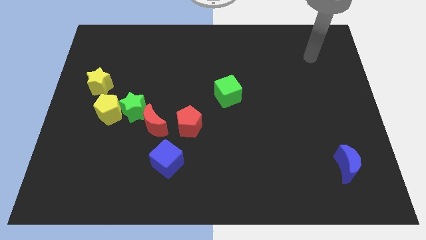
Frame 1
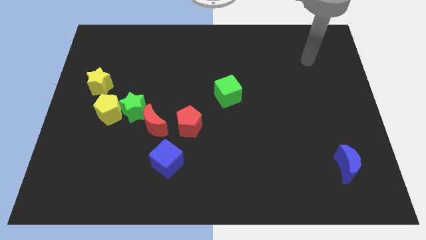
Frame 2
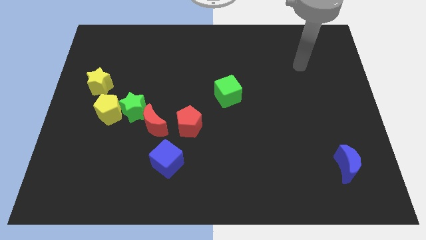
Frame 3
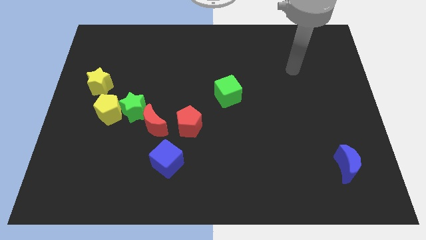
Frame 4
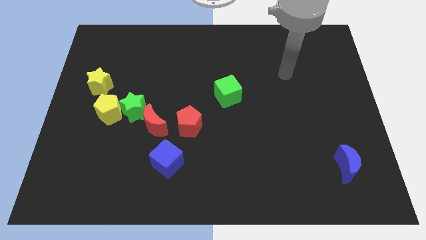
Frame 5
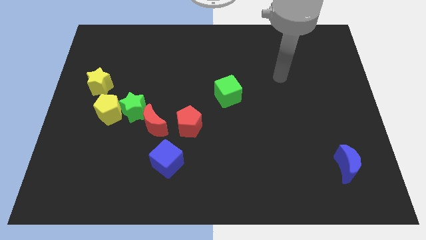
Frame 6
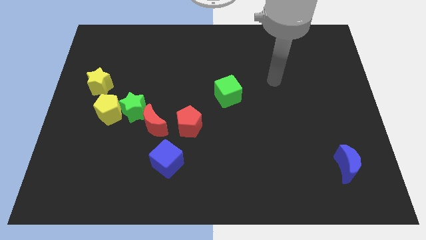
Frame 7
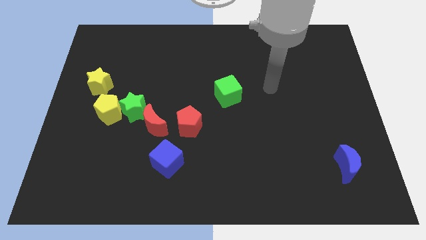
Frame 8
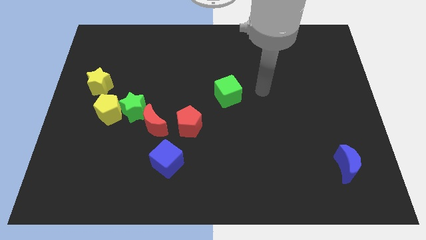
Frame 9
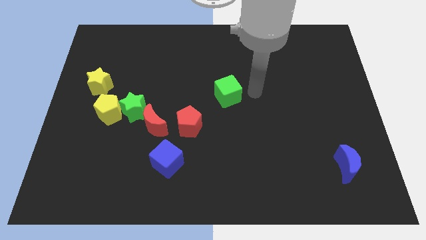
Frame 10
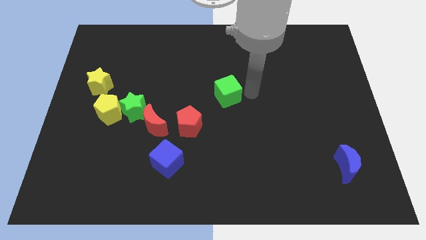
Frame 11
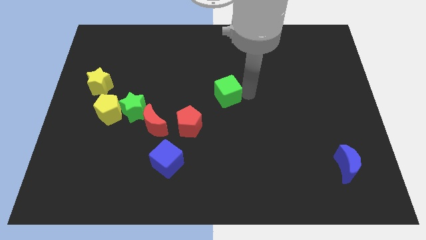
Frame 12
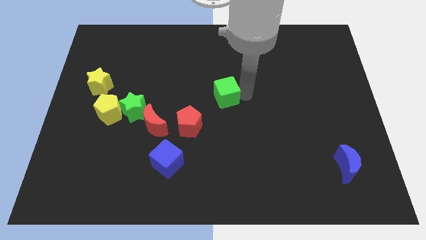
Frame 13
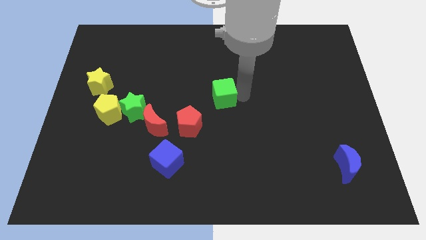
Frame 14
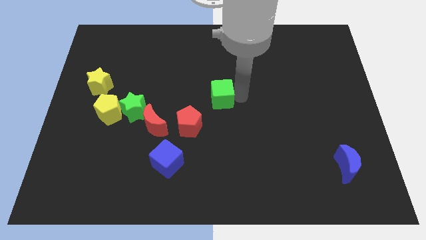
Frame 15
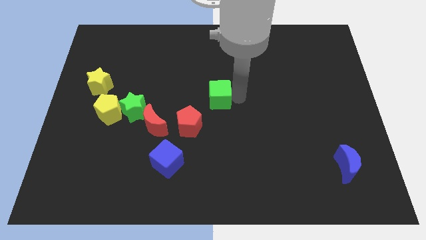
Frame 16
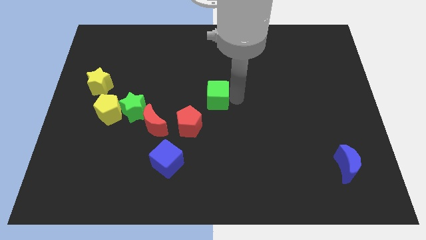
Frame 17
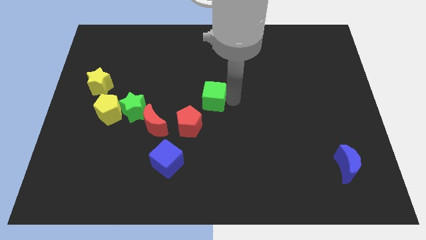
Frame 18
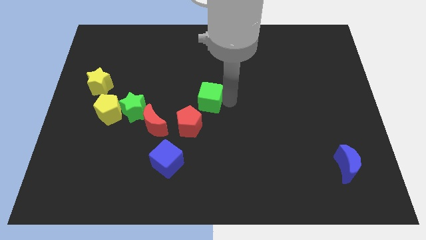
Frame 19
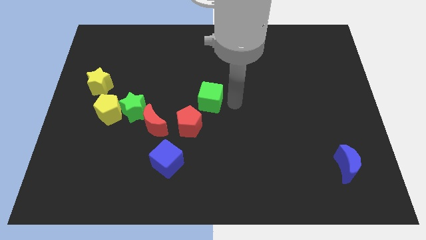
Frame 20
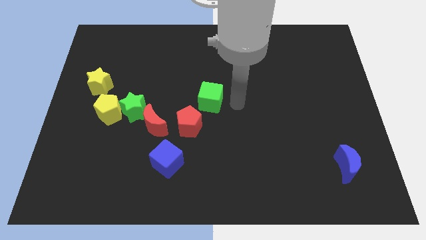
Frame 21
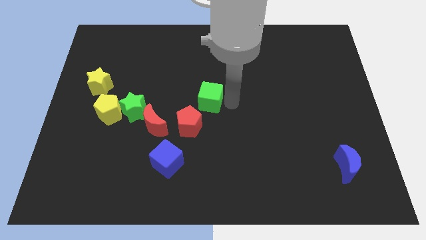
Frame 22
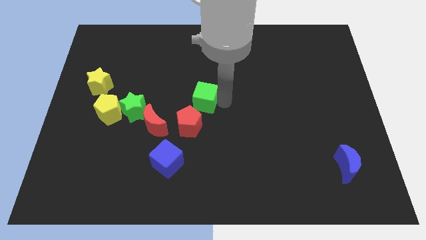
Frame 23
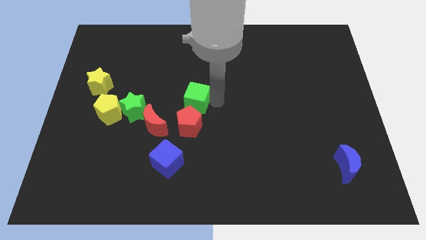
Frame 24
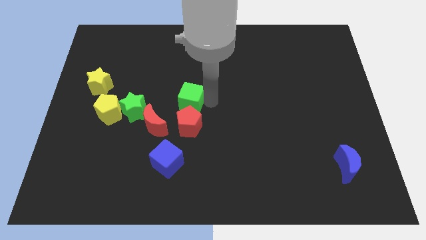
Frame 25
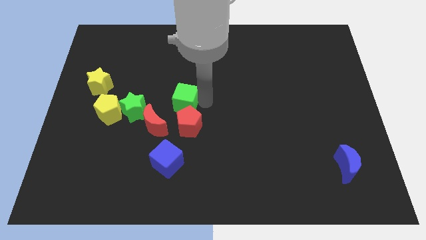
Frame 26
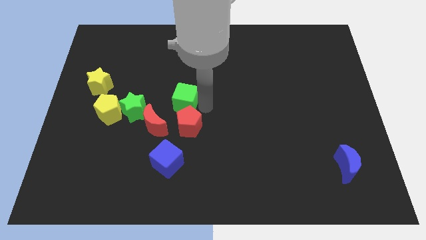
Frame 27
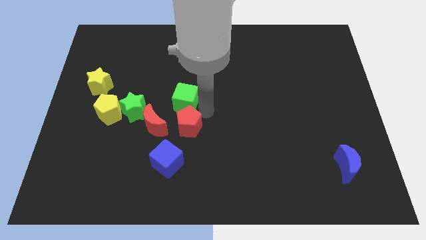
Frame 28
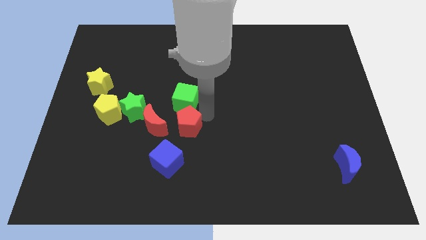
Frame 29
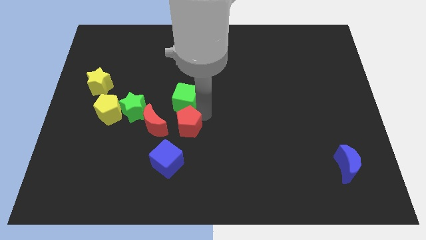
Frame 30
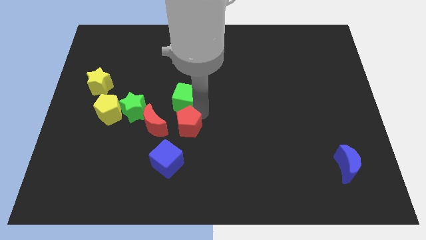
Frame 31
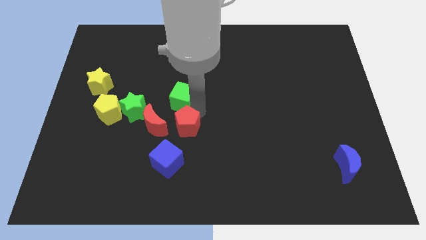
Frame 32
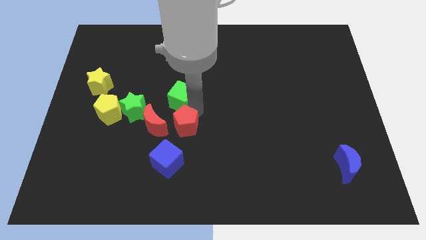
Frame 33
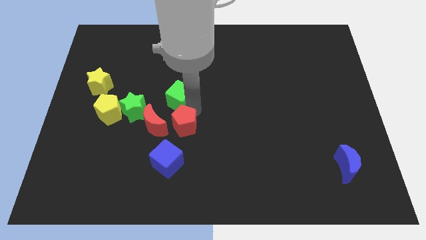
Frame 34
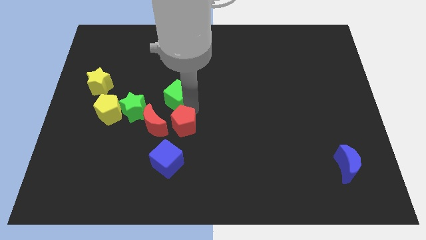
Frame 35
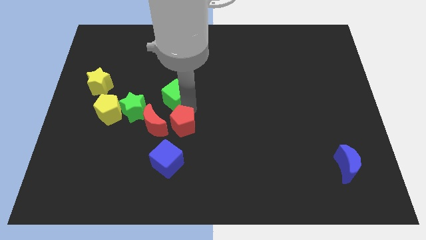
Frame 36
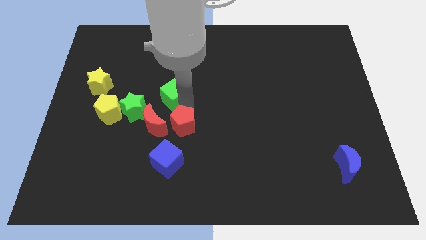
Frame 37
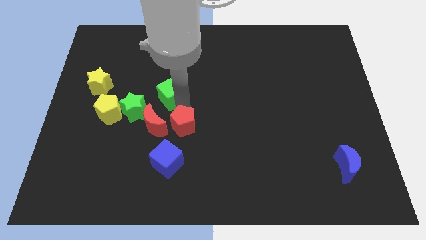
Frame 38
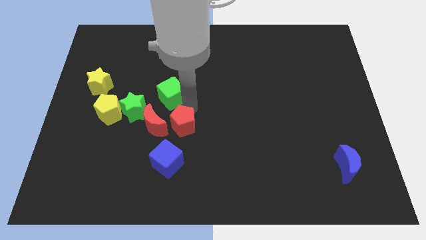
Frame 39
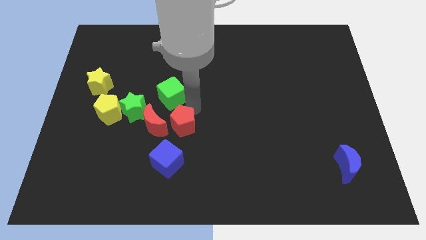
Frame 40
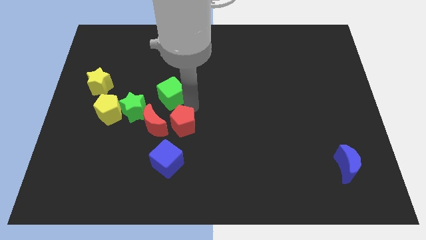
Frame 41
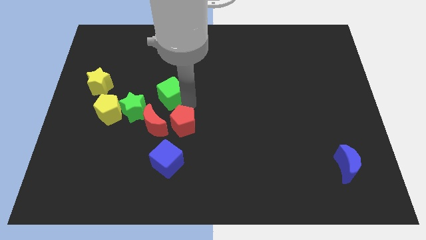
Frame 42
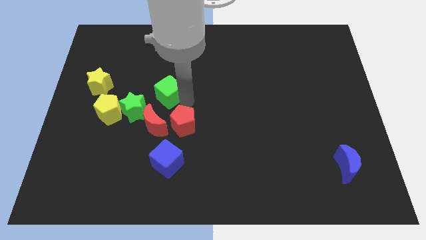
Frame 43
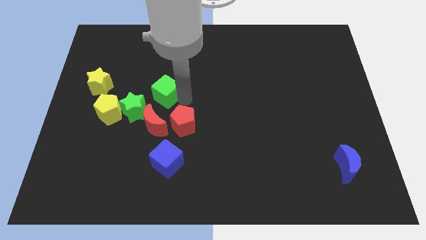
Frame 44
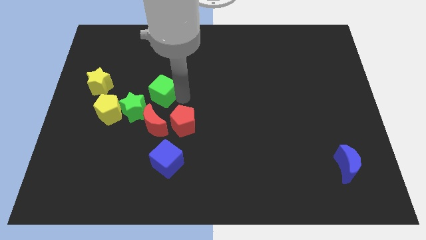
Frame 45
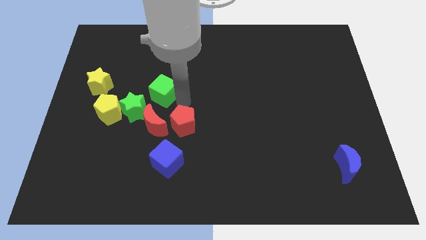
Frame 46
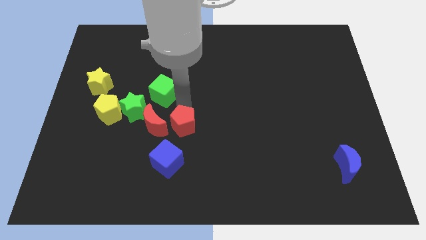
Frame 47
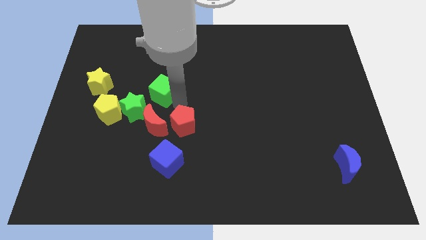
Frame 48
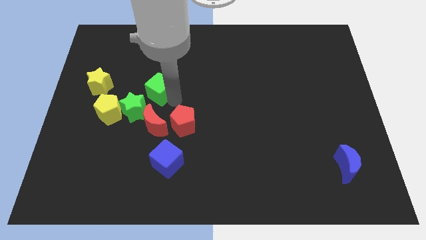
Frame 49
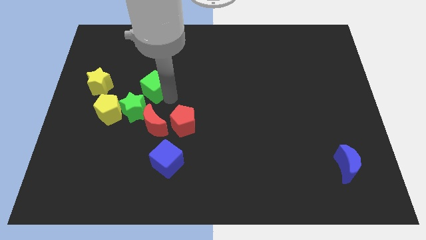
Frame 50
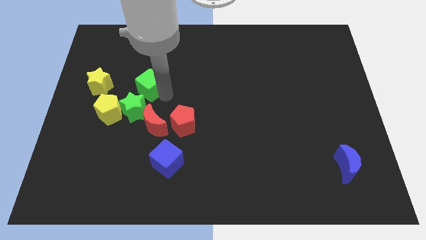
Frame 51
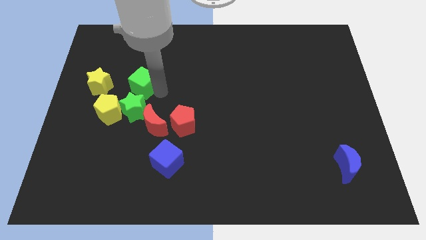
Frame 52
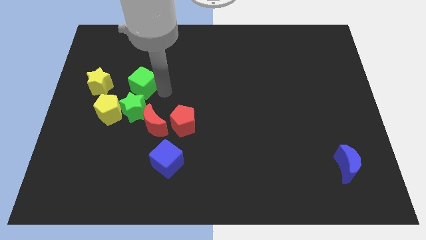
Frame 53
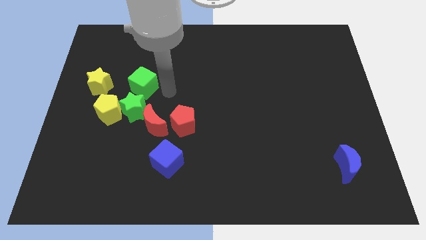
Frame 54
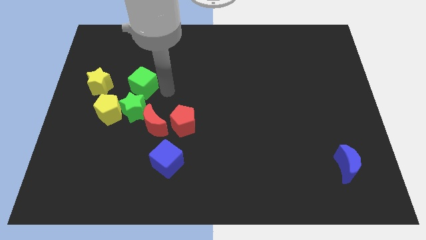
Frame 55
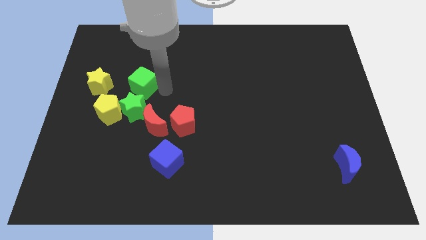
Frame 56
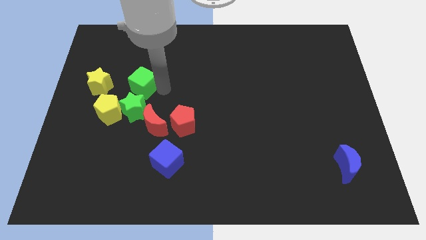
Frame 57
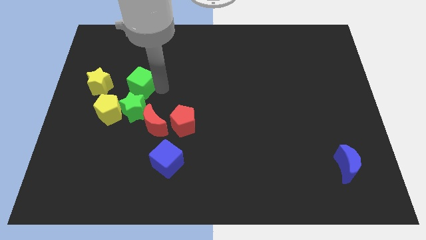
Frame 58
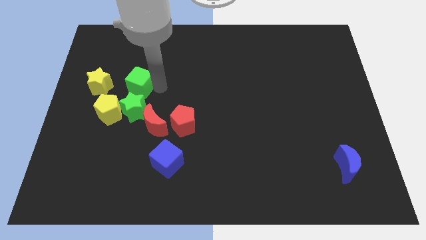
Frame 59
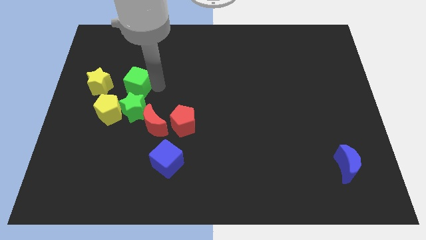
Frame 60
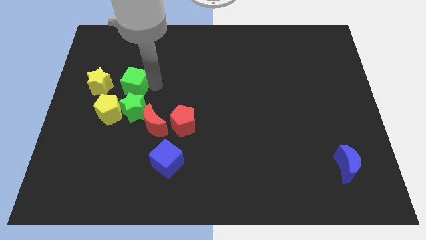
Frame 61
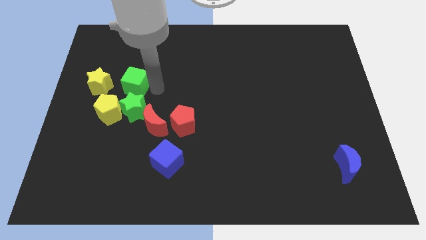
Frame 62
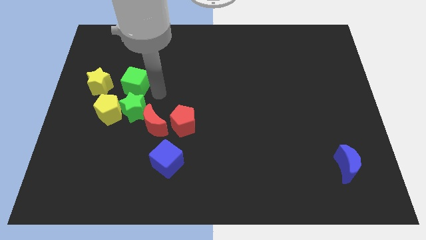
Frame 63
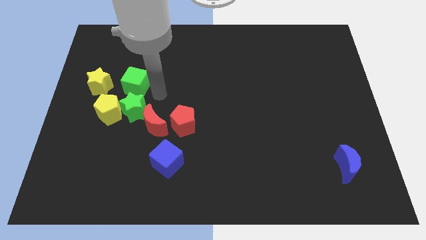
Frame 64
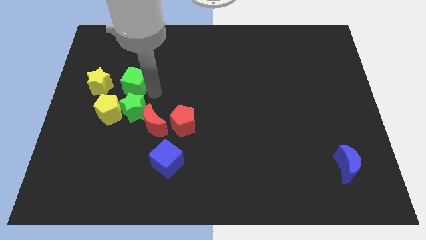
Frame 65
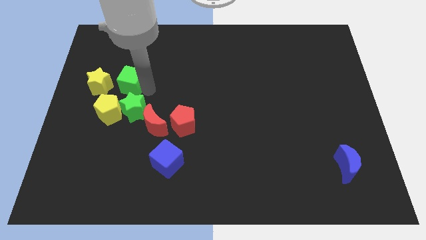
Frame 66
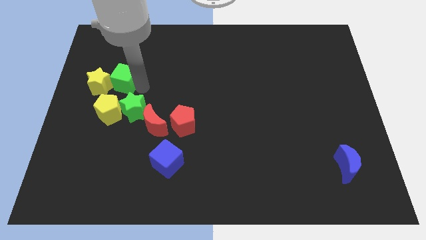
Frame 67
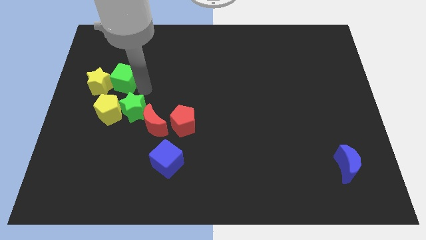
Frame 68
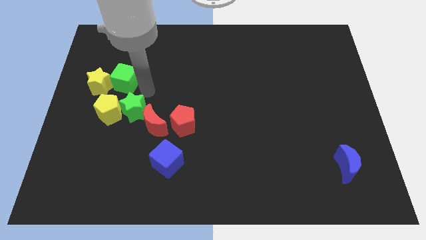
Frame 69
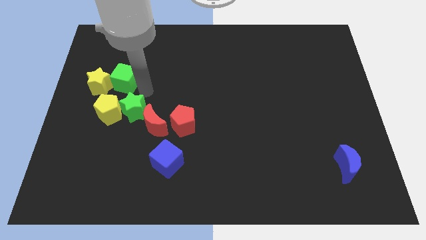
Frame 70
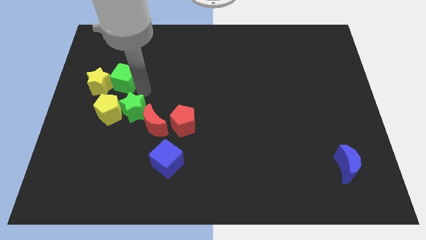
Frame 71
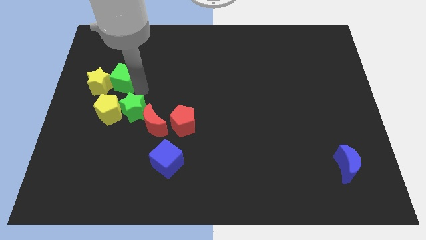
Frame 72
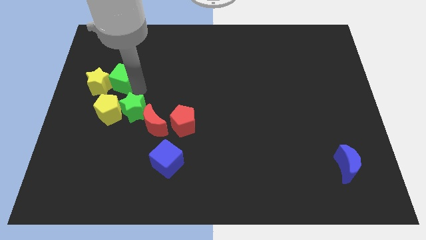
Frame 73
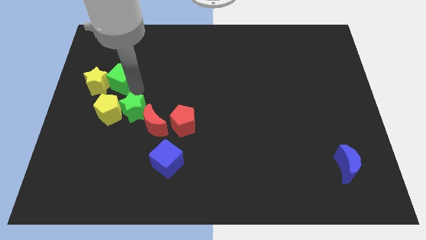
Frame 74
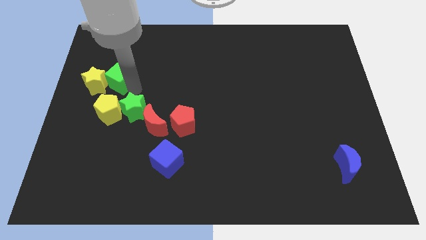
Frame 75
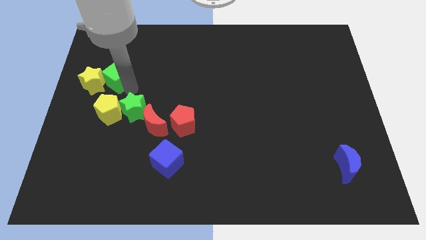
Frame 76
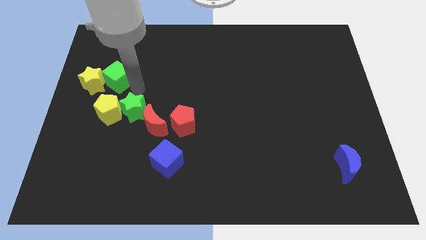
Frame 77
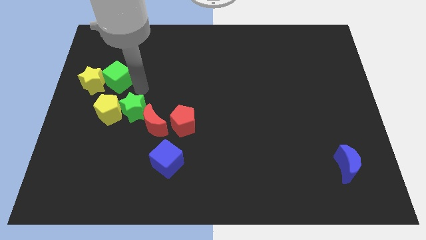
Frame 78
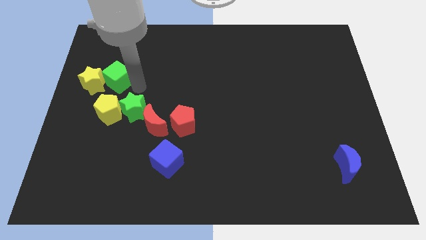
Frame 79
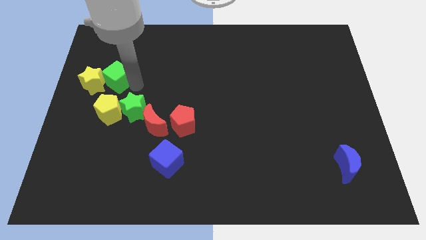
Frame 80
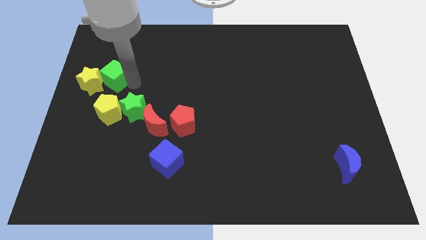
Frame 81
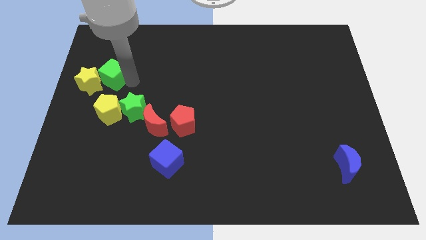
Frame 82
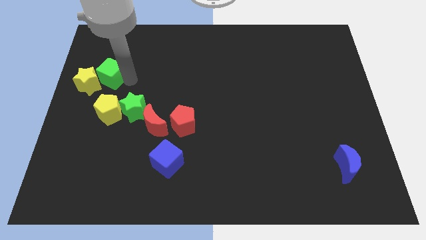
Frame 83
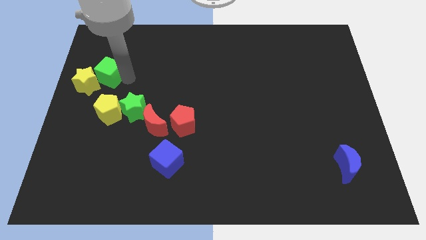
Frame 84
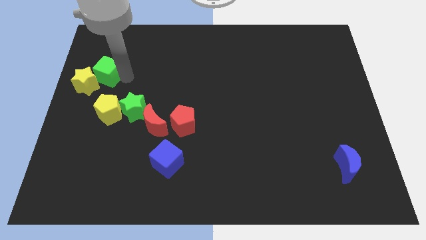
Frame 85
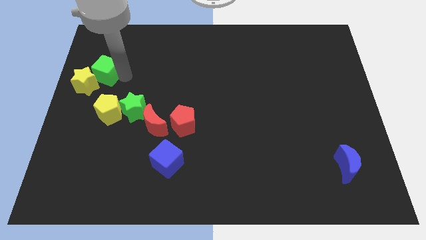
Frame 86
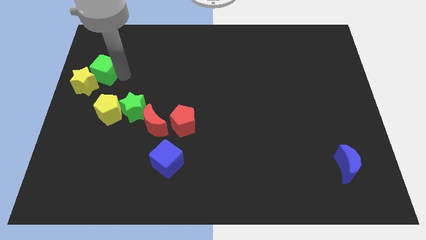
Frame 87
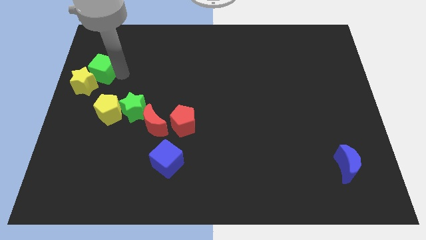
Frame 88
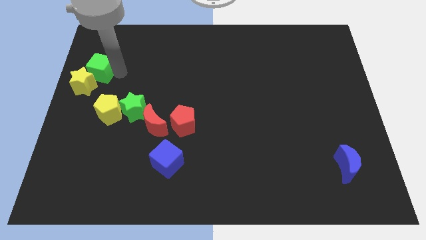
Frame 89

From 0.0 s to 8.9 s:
slide the green cube to the center left
